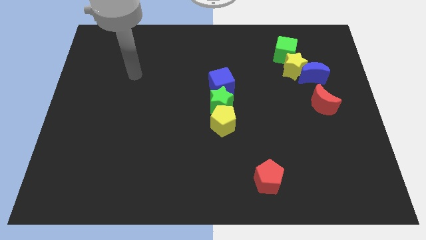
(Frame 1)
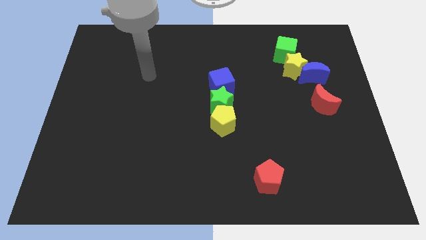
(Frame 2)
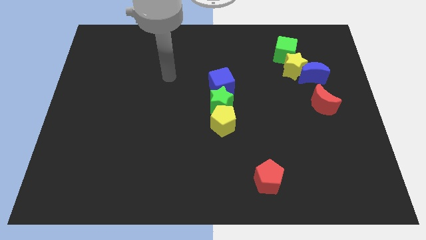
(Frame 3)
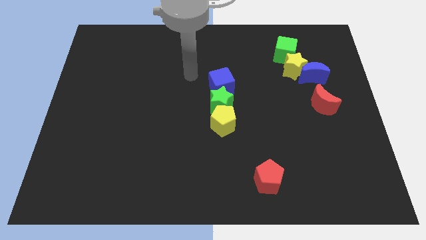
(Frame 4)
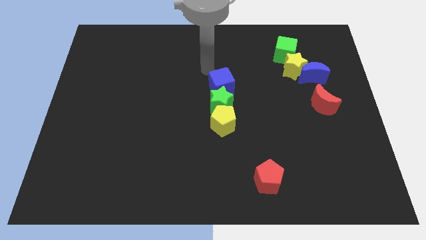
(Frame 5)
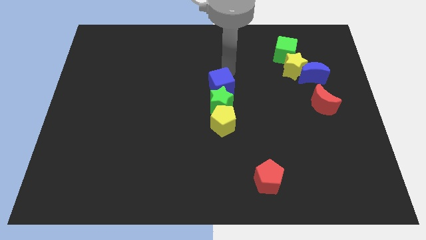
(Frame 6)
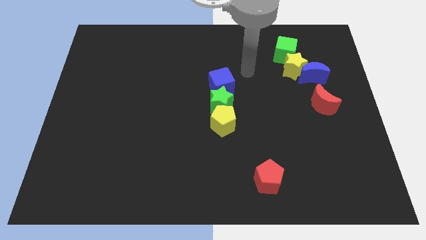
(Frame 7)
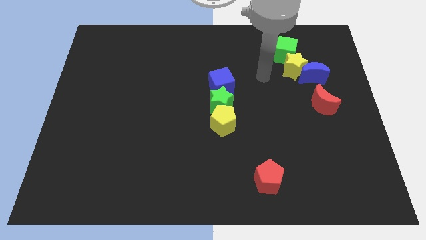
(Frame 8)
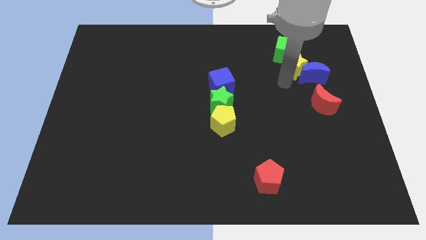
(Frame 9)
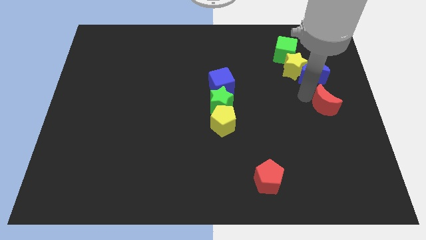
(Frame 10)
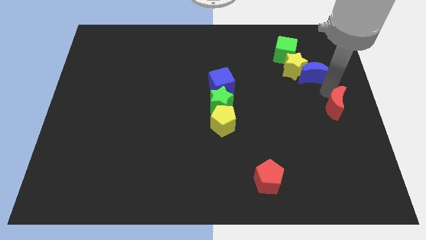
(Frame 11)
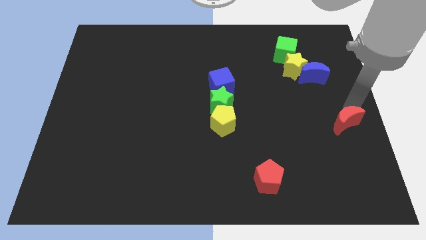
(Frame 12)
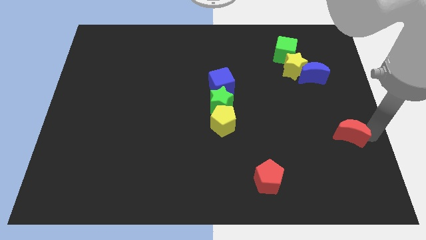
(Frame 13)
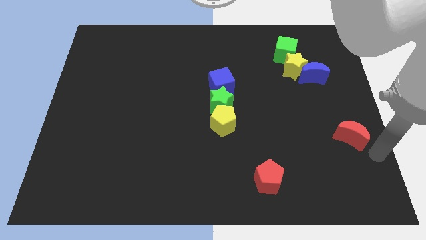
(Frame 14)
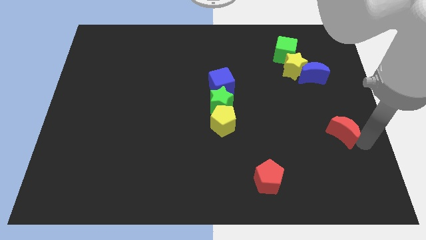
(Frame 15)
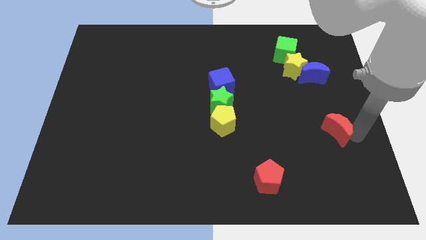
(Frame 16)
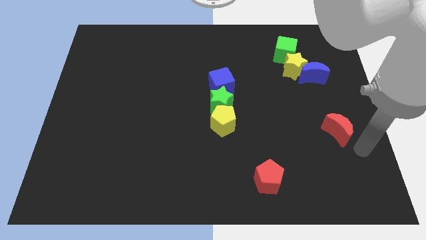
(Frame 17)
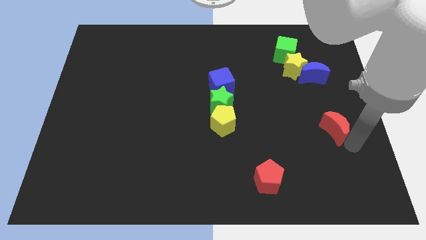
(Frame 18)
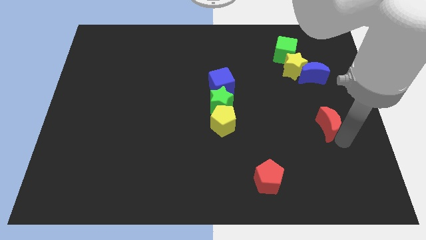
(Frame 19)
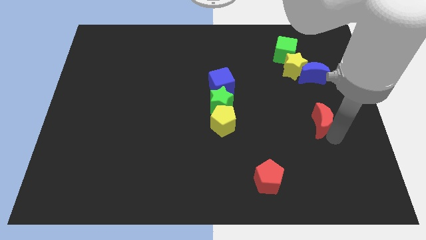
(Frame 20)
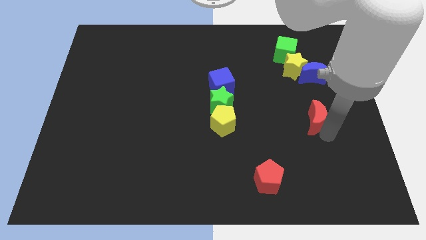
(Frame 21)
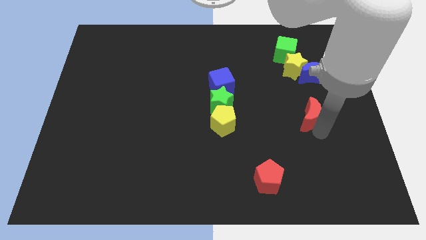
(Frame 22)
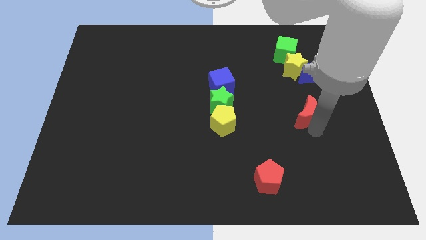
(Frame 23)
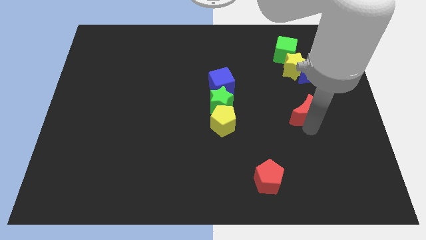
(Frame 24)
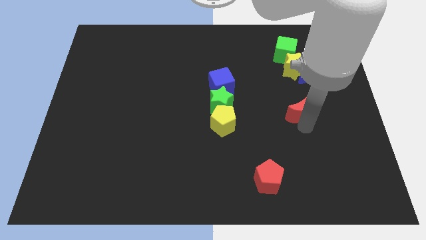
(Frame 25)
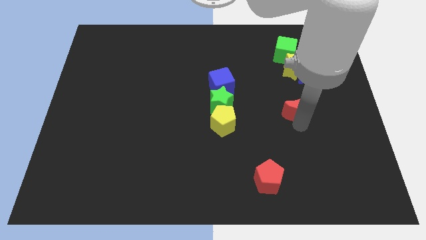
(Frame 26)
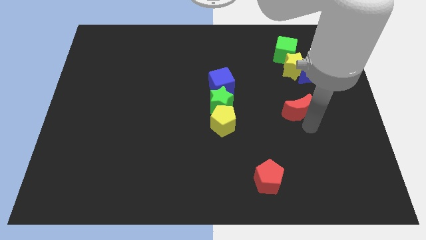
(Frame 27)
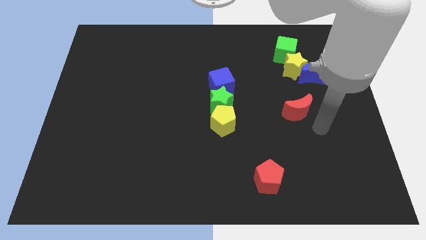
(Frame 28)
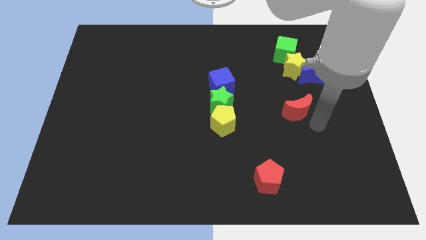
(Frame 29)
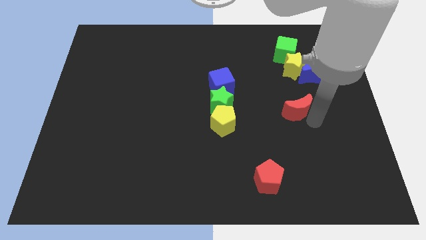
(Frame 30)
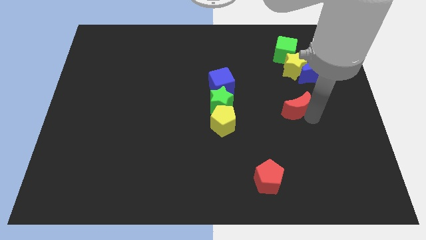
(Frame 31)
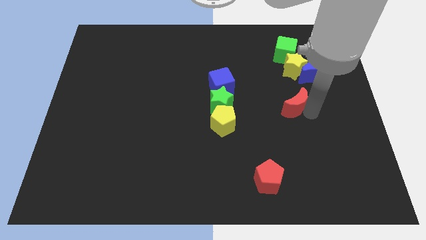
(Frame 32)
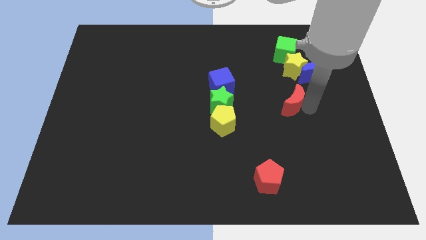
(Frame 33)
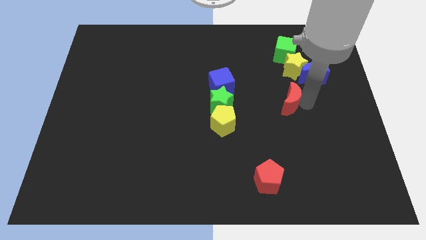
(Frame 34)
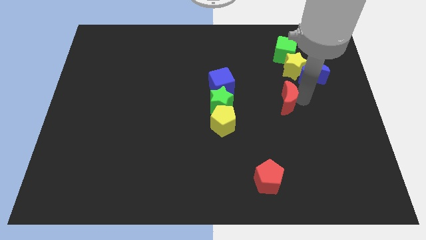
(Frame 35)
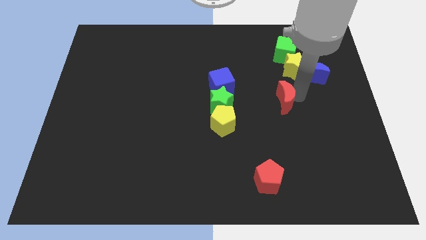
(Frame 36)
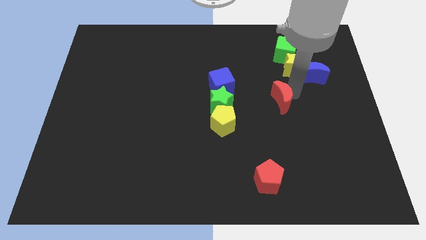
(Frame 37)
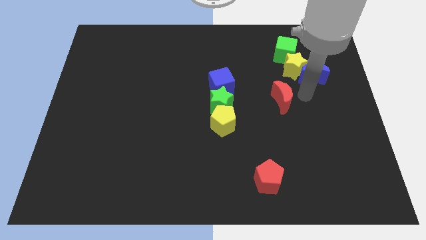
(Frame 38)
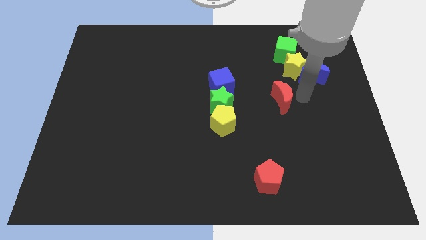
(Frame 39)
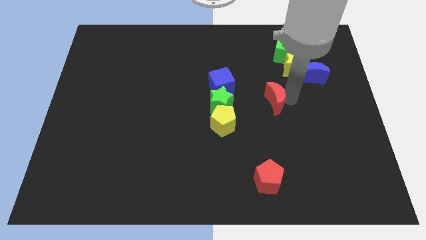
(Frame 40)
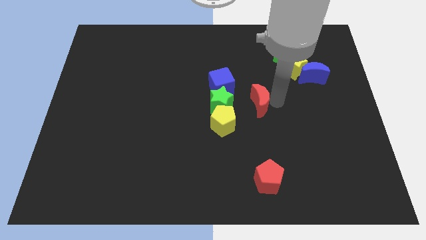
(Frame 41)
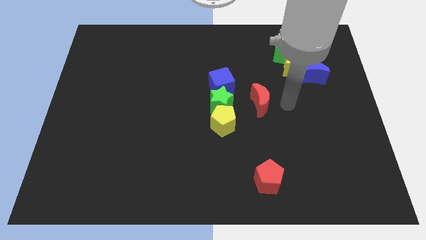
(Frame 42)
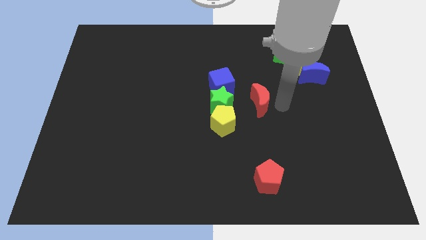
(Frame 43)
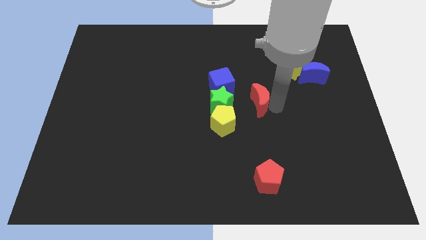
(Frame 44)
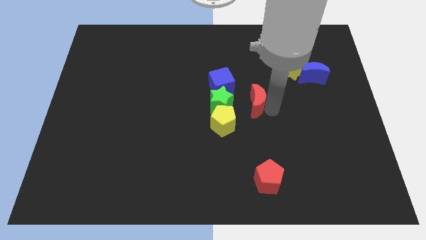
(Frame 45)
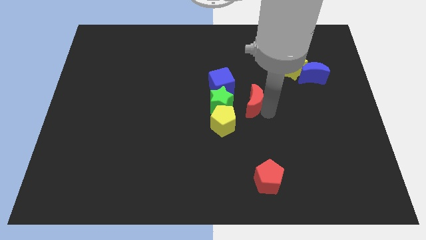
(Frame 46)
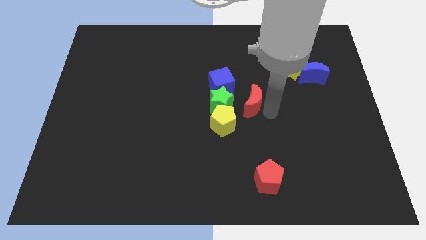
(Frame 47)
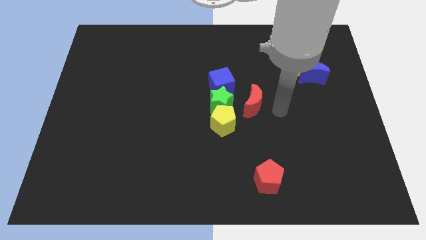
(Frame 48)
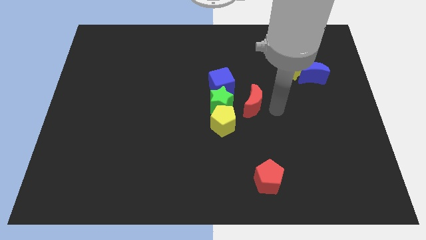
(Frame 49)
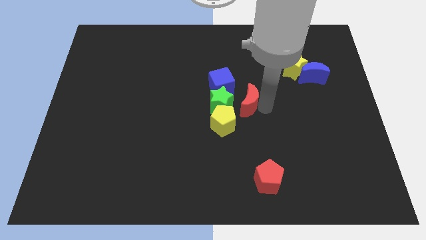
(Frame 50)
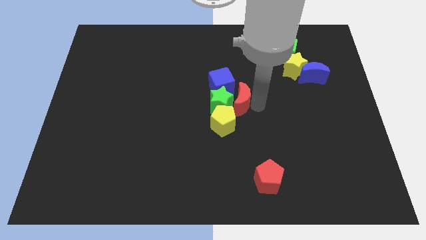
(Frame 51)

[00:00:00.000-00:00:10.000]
slide the red moon to the green star

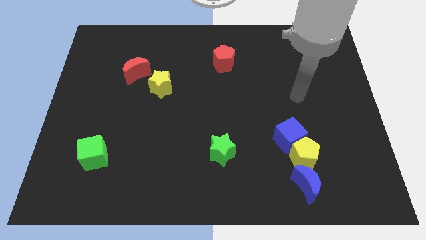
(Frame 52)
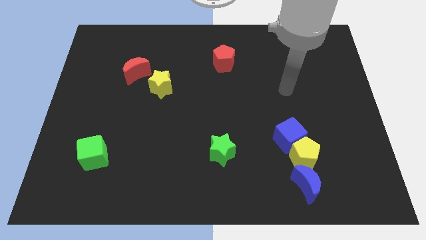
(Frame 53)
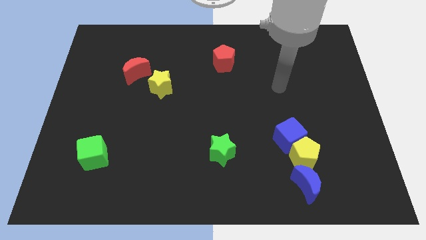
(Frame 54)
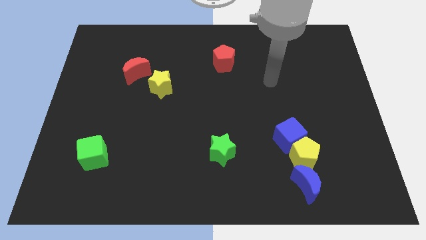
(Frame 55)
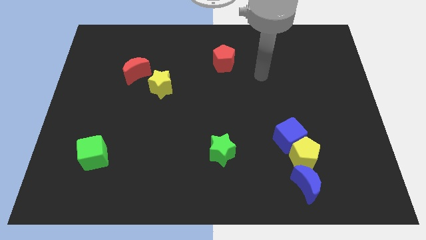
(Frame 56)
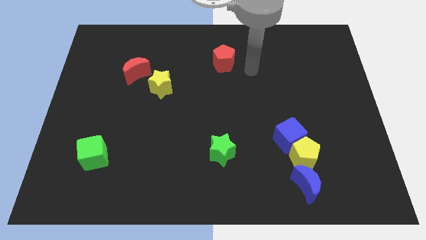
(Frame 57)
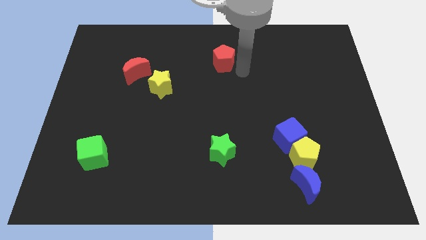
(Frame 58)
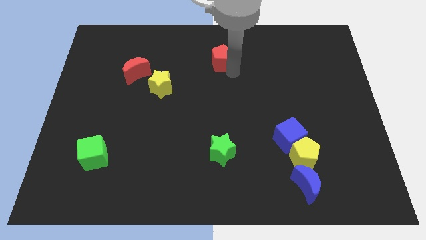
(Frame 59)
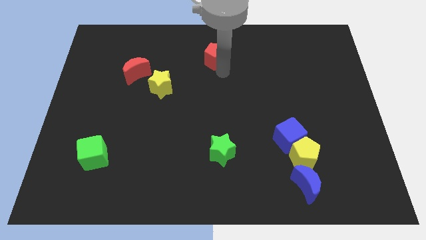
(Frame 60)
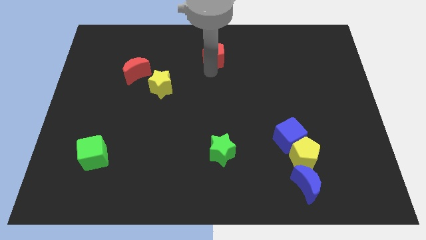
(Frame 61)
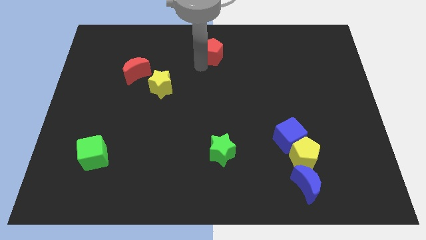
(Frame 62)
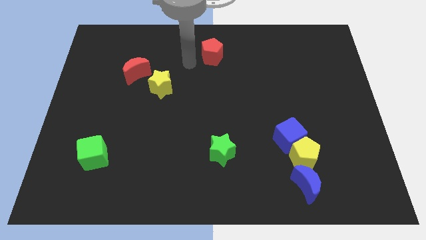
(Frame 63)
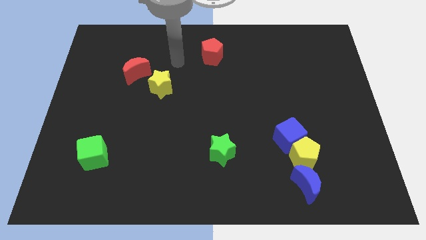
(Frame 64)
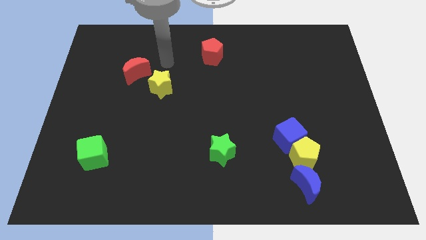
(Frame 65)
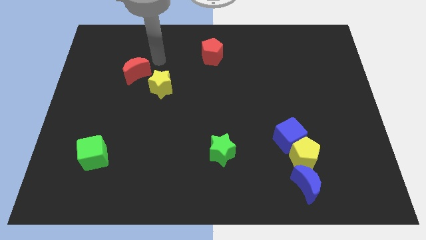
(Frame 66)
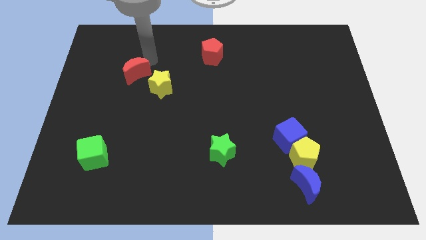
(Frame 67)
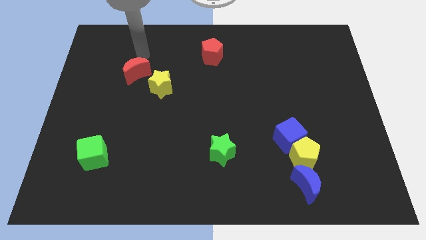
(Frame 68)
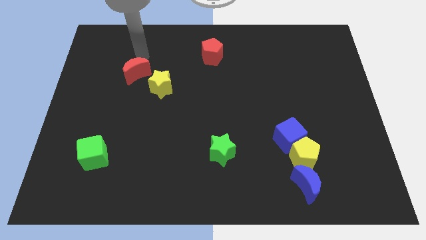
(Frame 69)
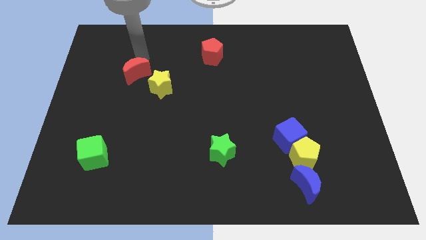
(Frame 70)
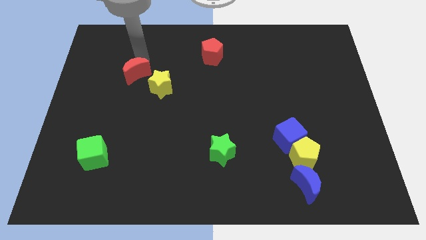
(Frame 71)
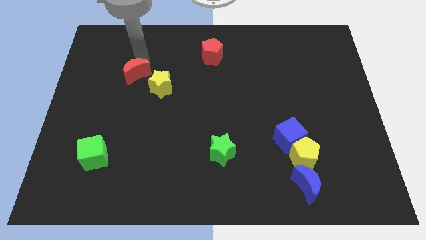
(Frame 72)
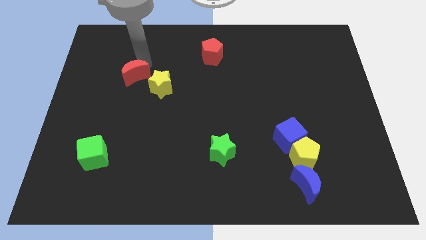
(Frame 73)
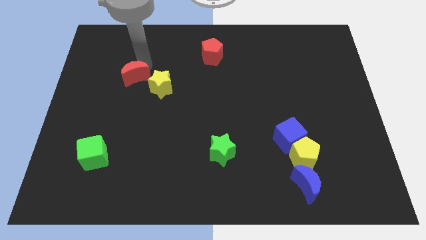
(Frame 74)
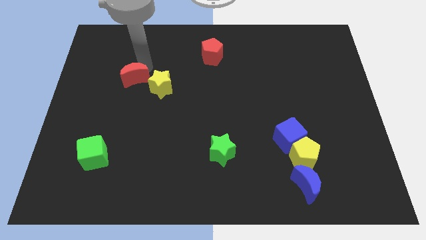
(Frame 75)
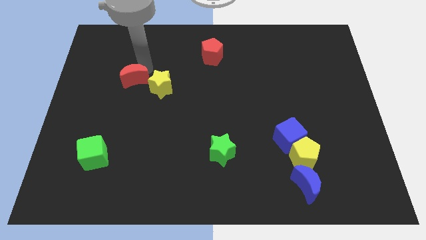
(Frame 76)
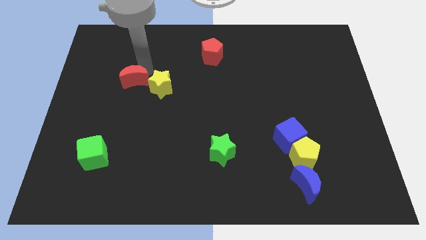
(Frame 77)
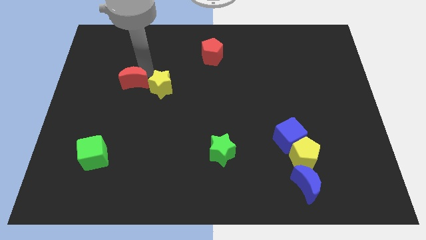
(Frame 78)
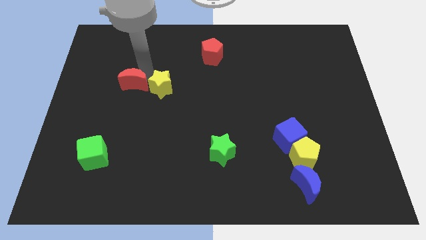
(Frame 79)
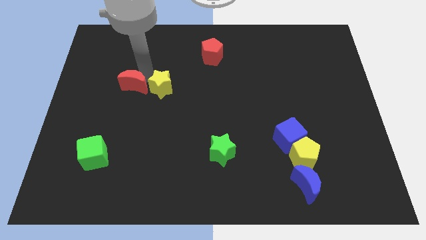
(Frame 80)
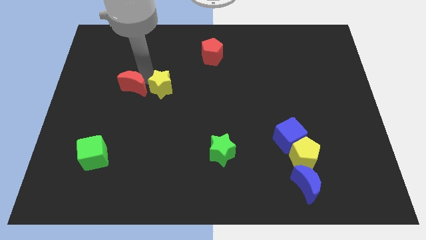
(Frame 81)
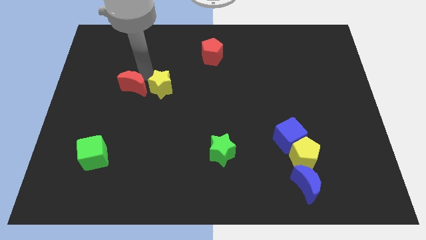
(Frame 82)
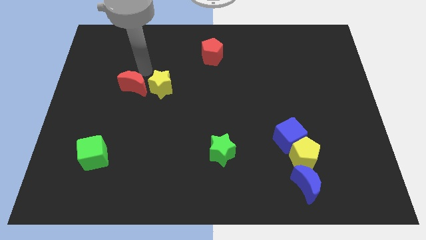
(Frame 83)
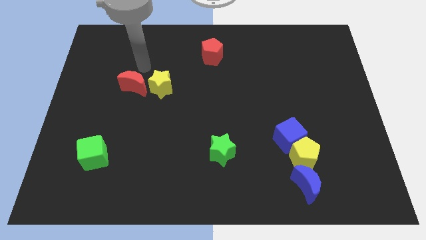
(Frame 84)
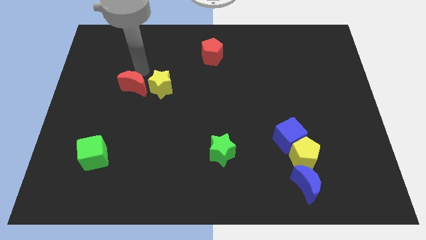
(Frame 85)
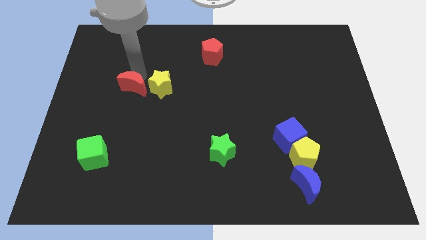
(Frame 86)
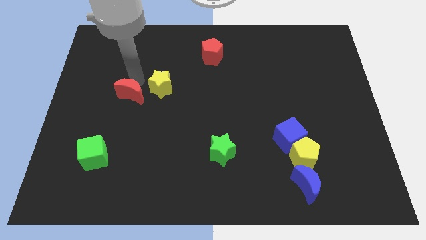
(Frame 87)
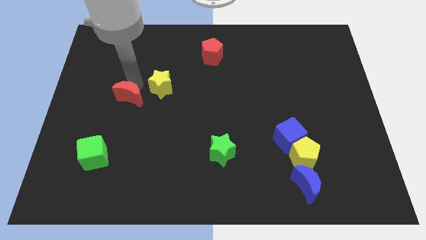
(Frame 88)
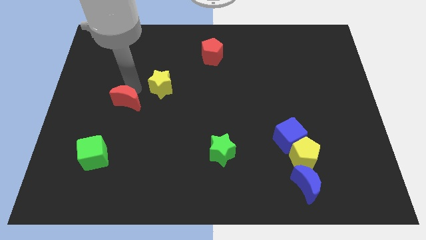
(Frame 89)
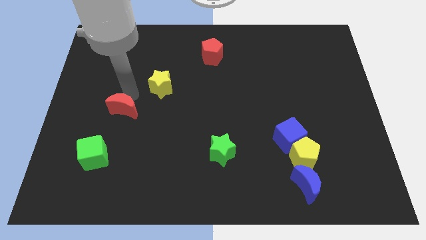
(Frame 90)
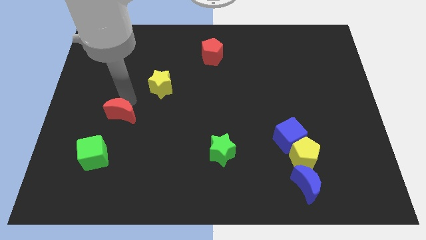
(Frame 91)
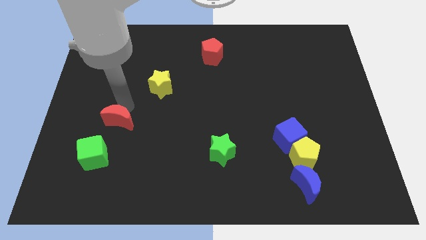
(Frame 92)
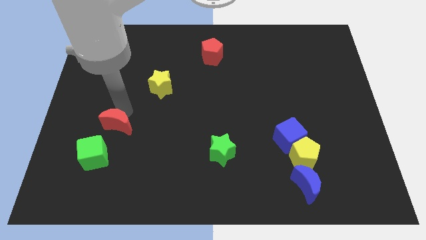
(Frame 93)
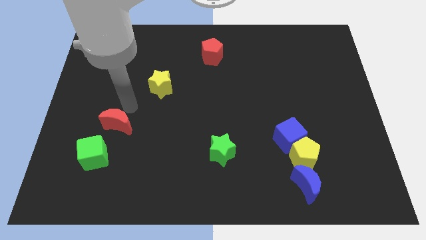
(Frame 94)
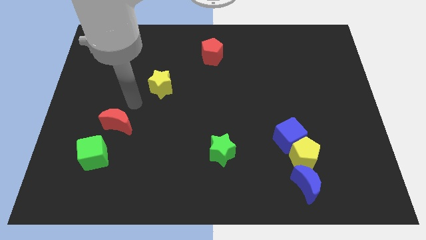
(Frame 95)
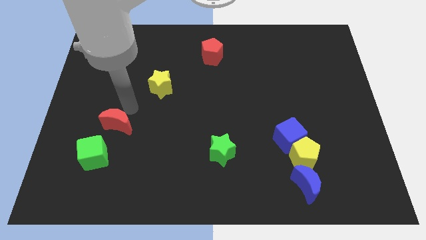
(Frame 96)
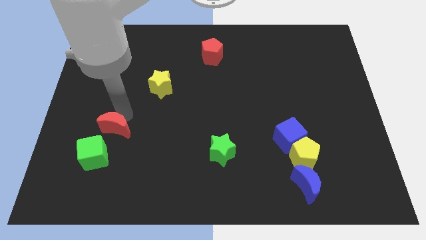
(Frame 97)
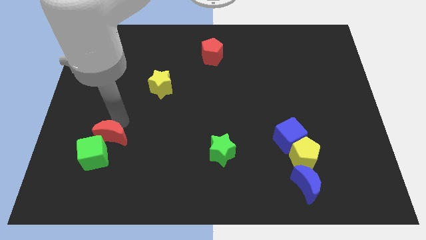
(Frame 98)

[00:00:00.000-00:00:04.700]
put the red moon close to the green cube
